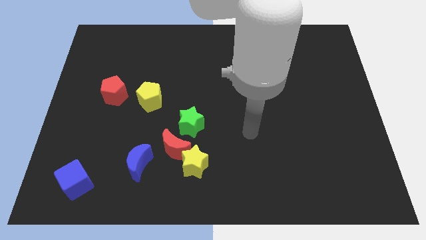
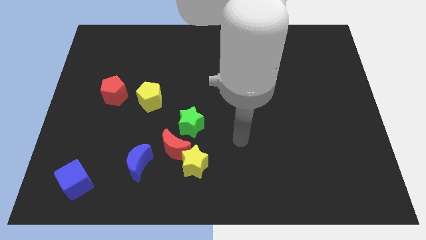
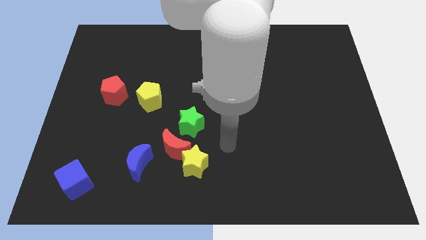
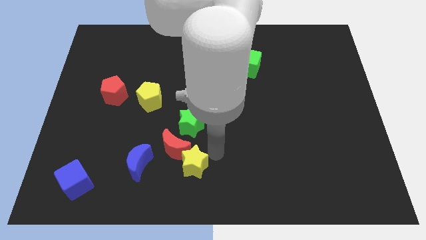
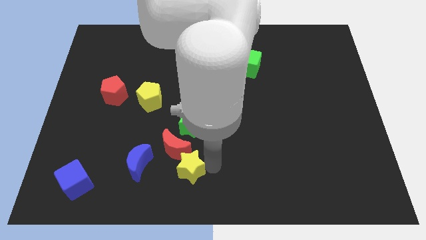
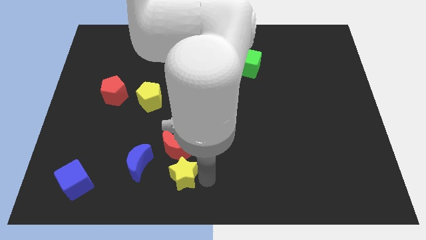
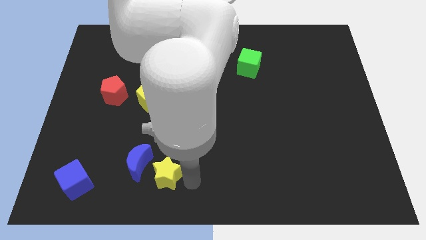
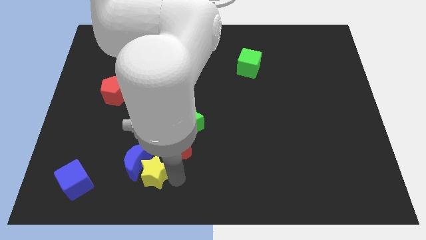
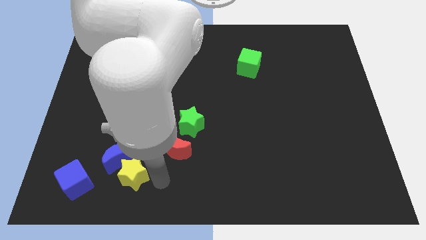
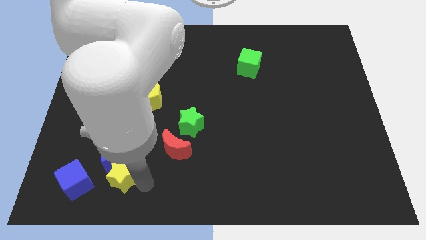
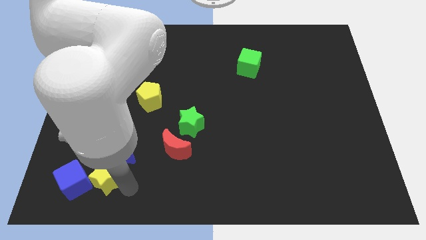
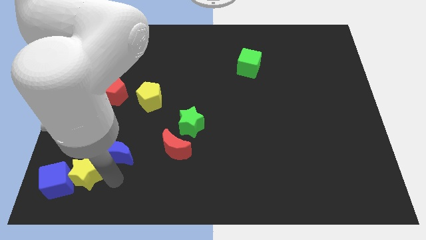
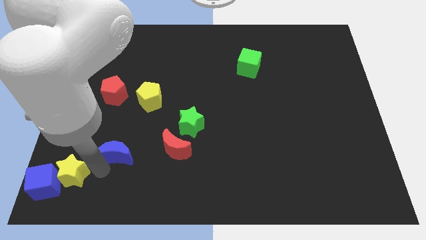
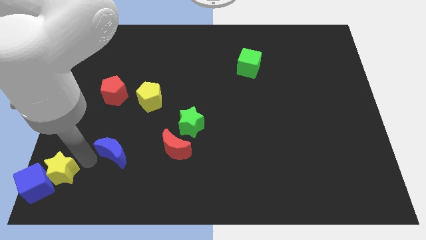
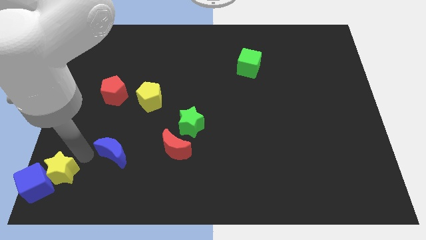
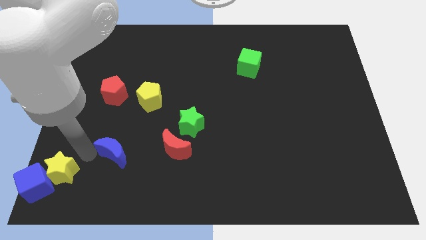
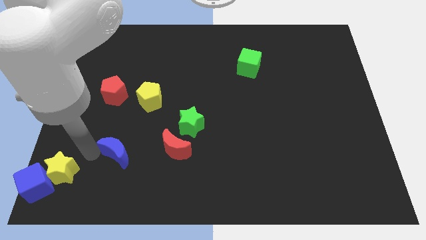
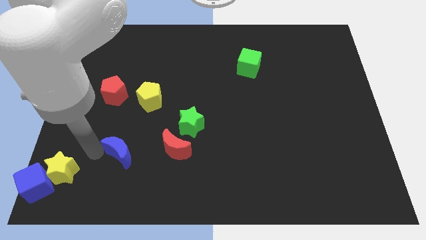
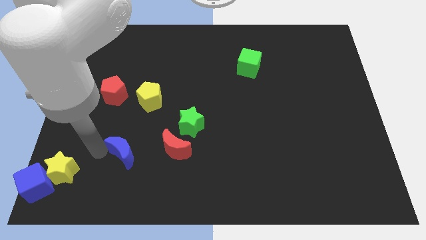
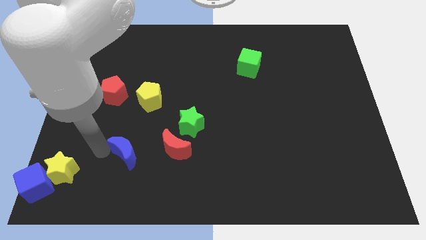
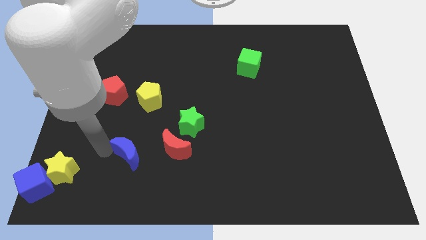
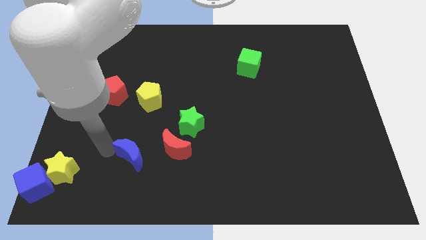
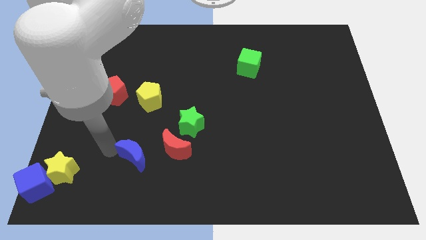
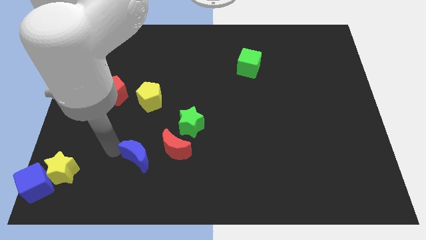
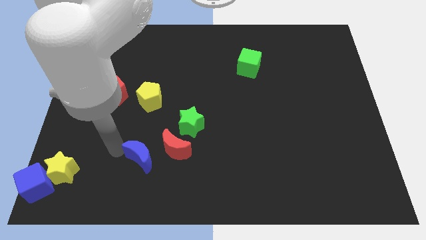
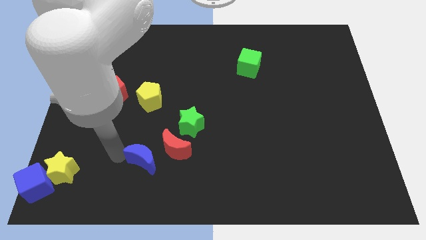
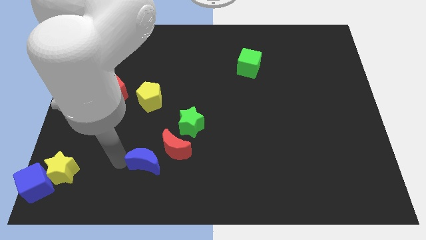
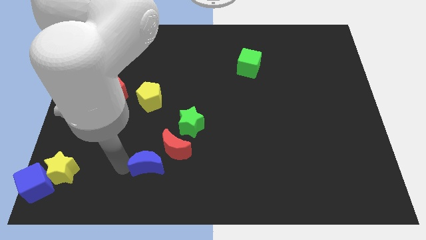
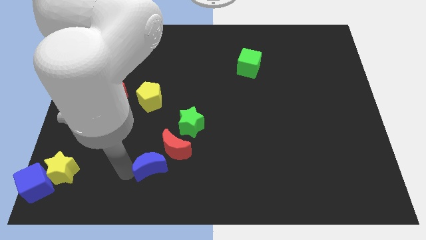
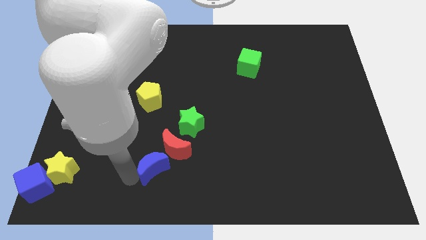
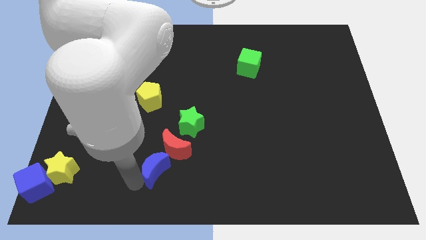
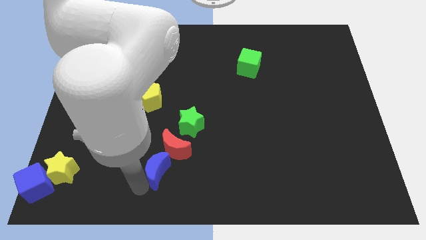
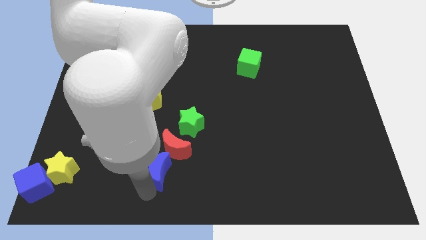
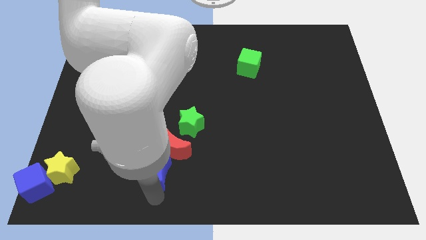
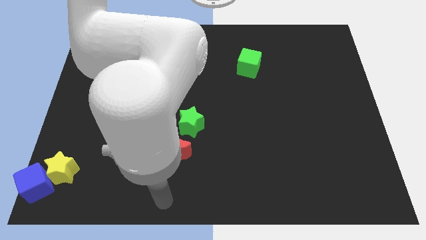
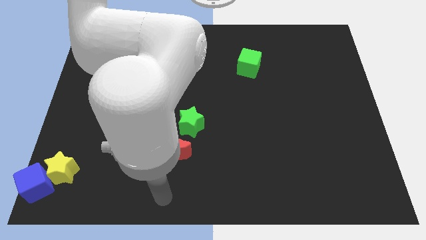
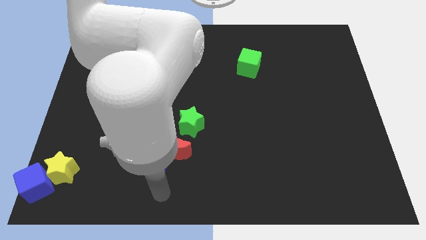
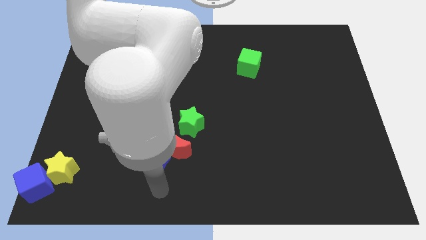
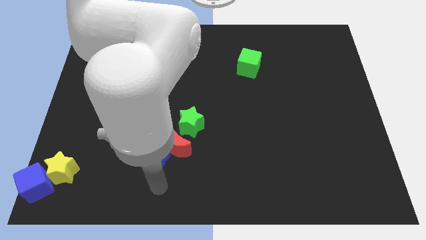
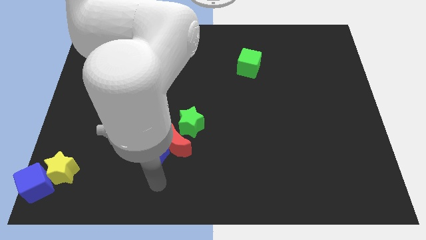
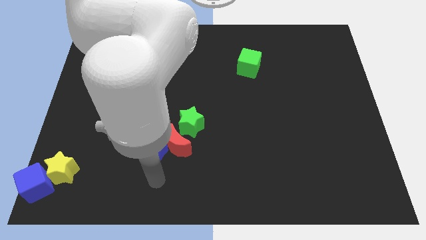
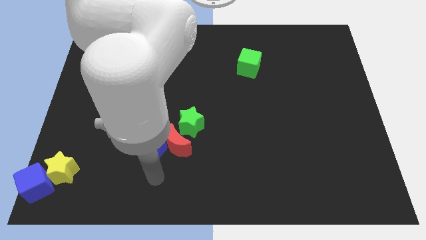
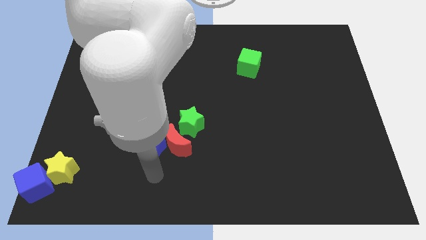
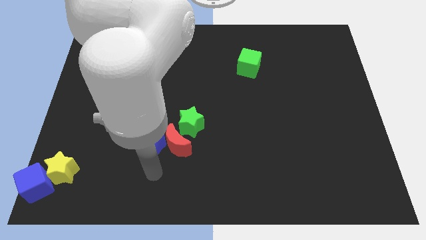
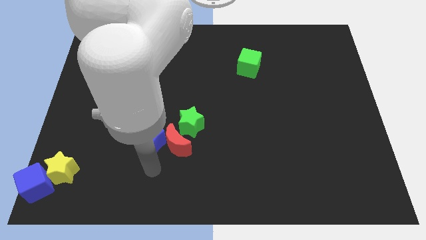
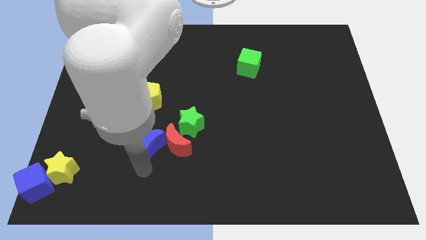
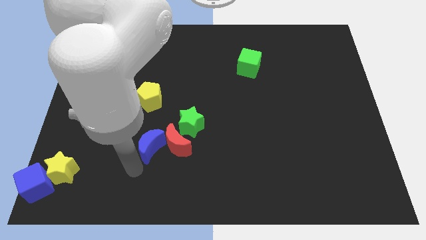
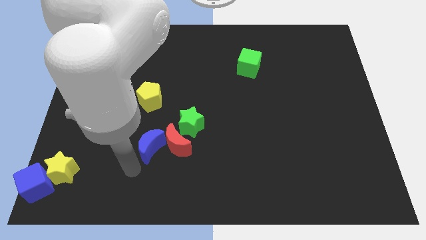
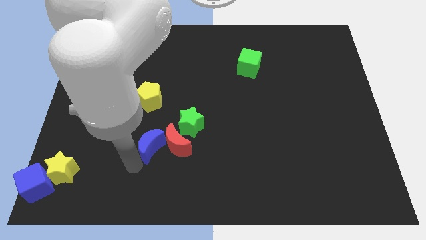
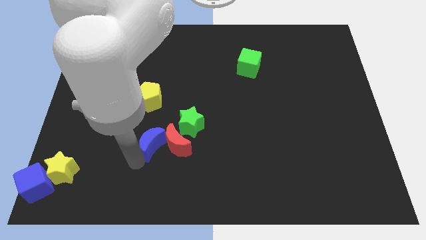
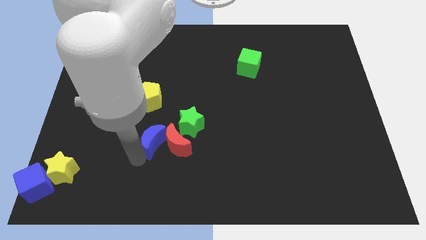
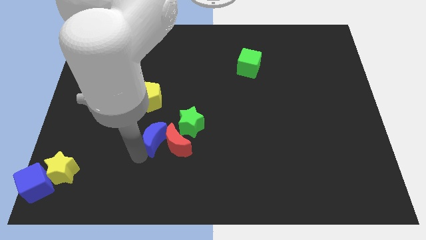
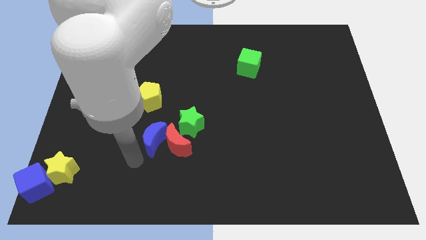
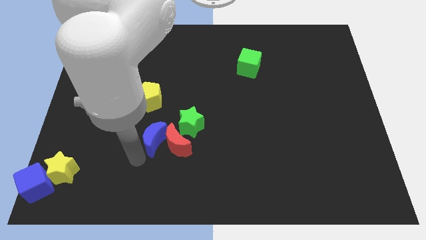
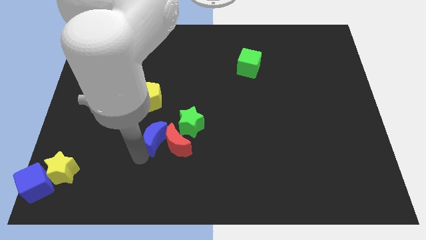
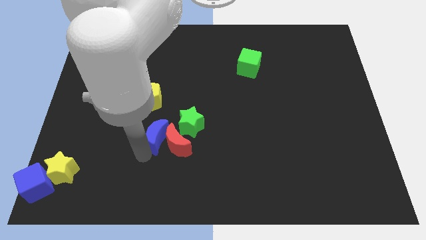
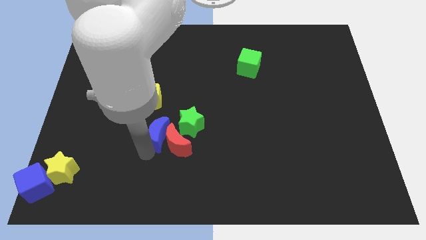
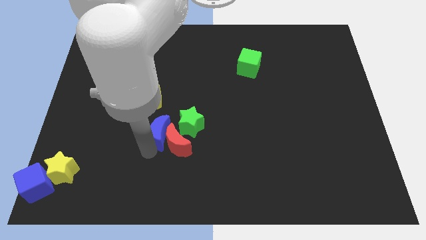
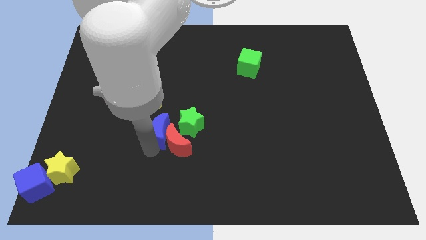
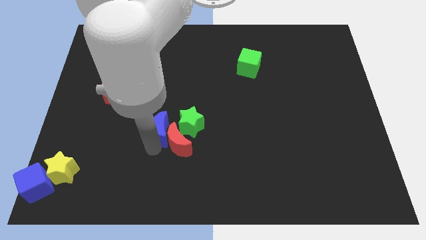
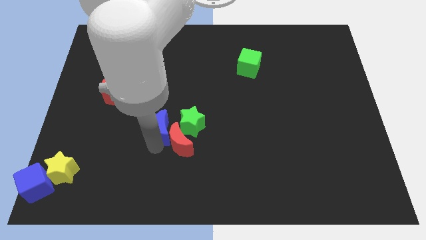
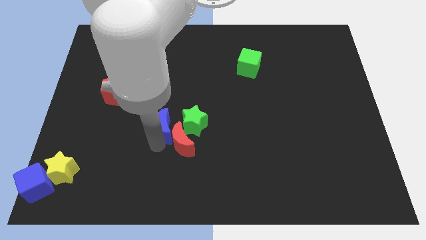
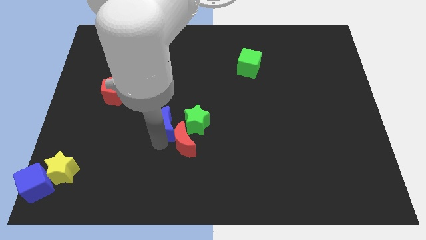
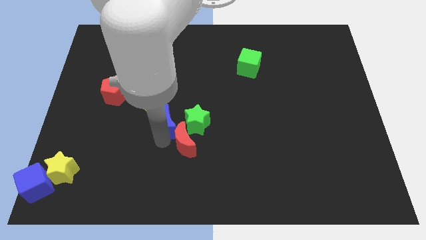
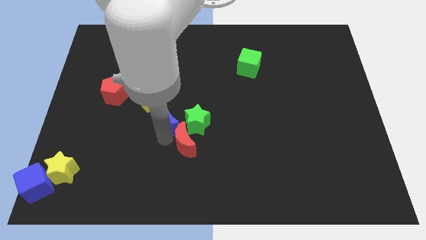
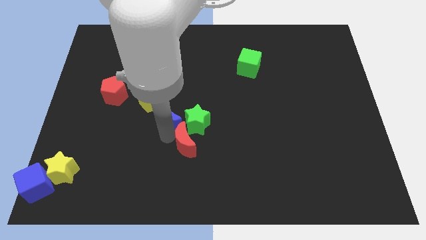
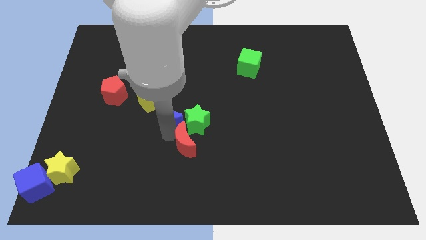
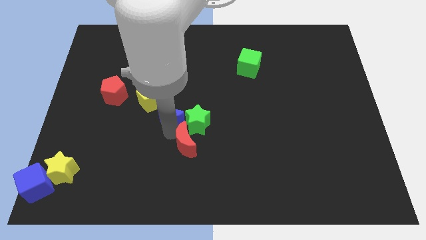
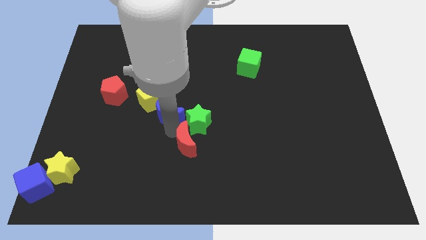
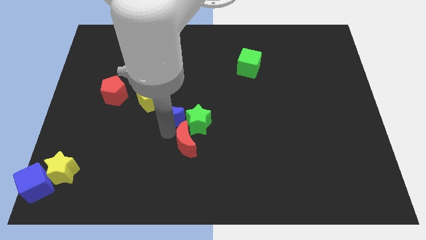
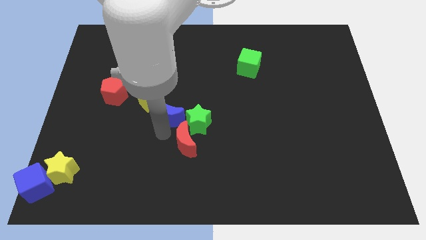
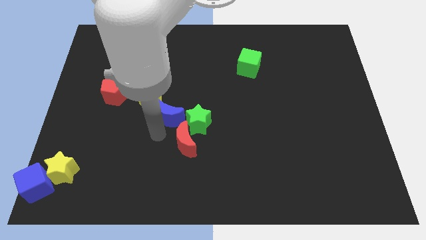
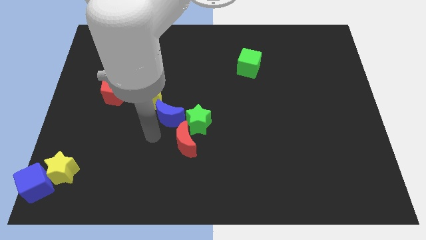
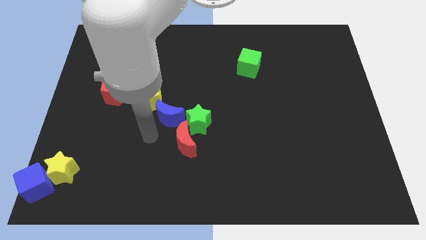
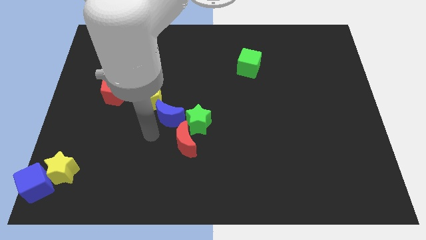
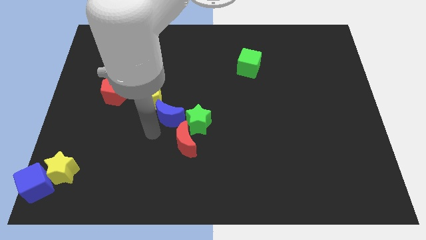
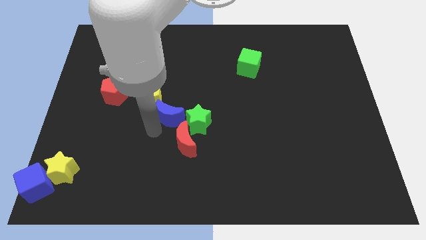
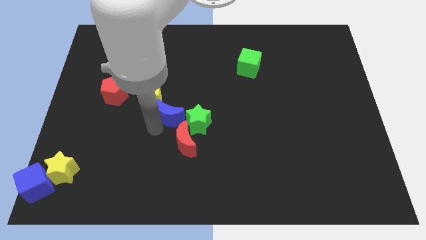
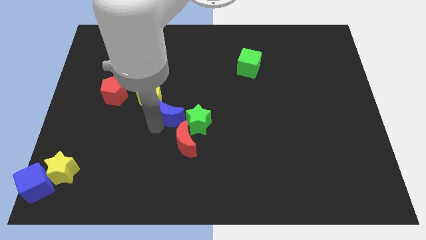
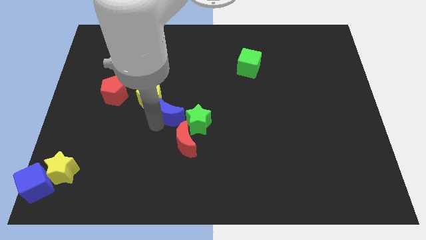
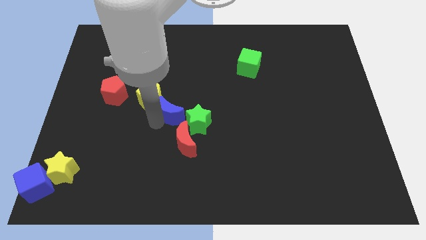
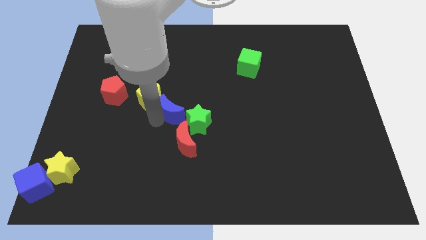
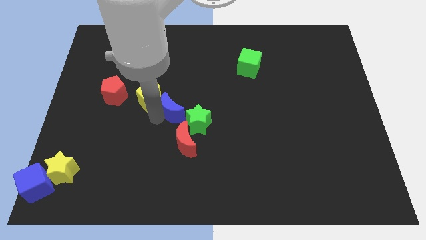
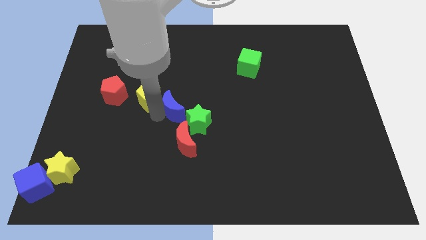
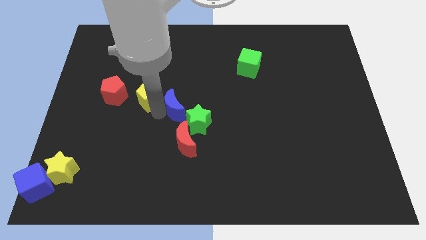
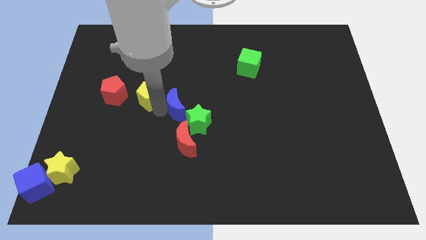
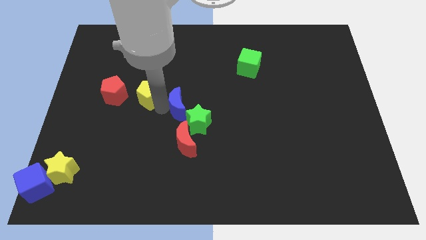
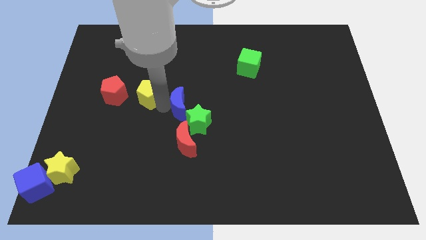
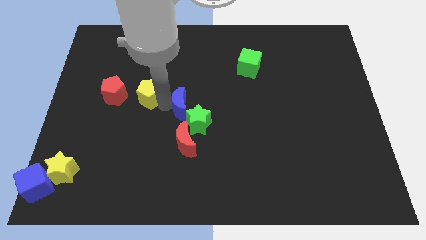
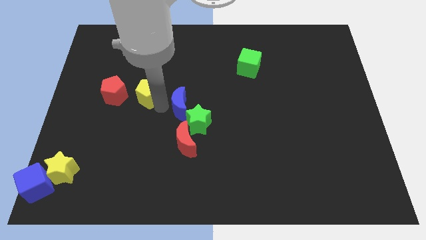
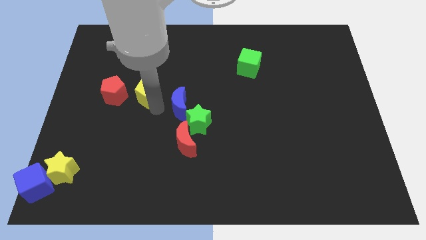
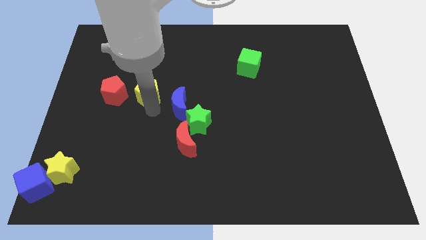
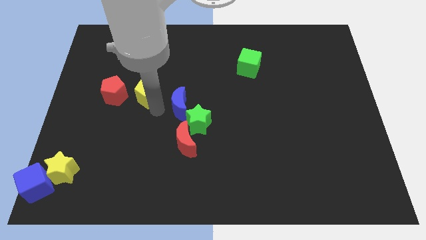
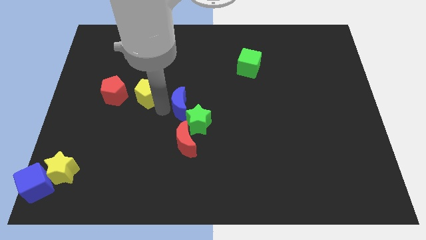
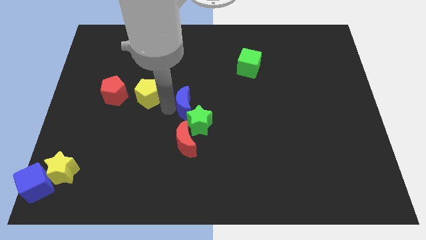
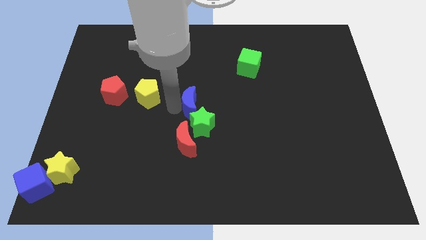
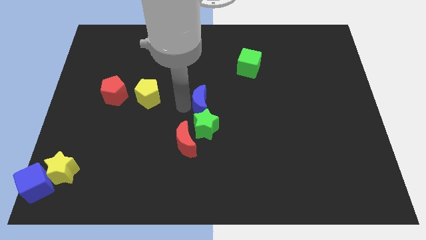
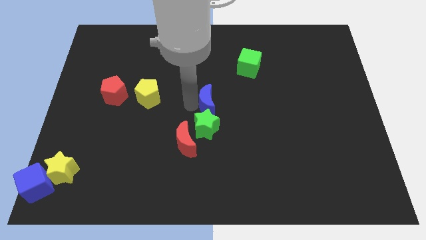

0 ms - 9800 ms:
push the blue moon to the top right side of the green star
